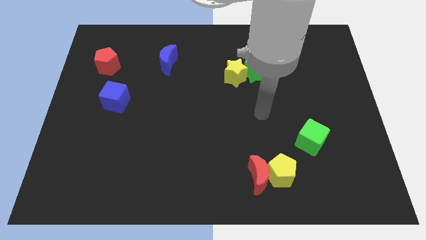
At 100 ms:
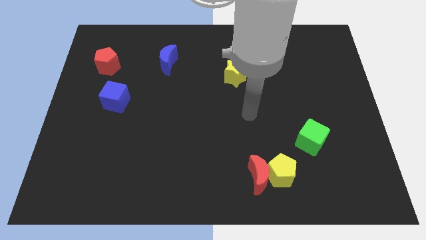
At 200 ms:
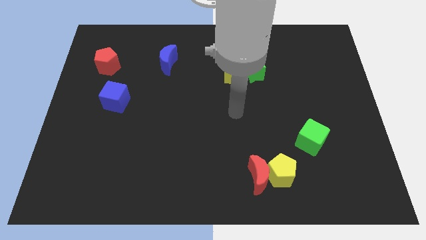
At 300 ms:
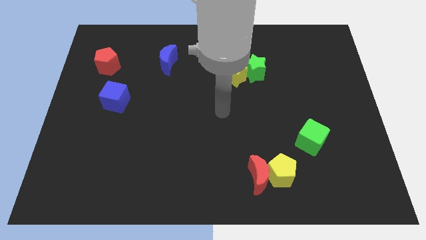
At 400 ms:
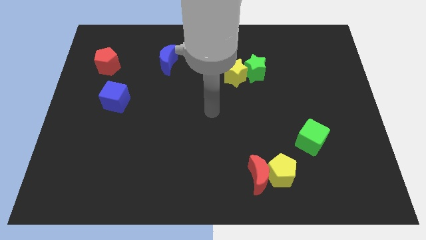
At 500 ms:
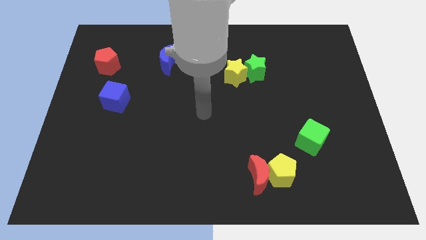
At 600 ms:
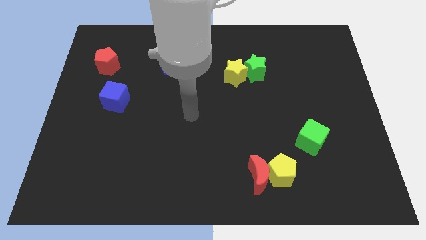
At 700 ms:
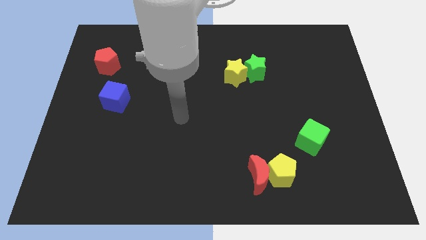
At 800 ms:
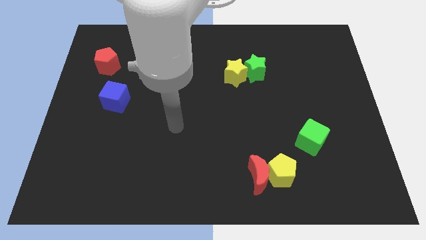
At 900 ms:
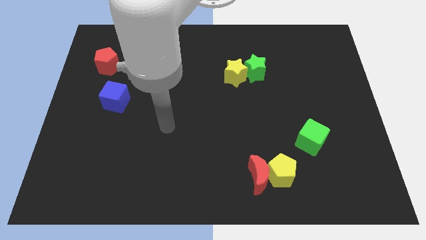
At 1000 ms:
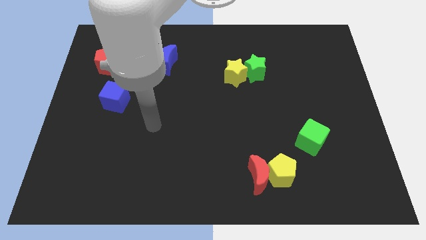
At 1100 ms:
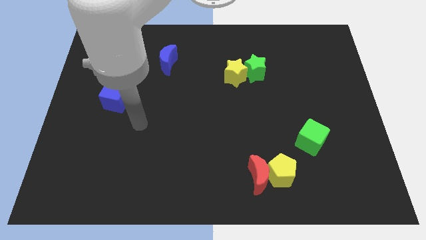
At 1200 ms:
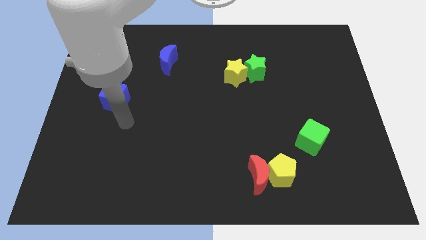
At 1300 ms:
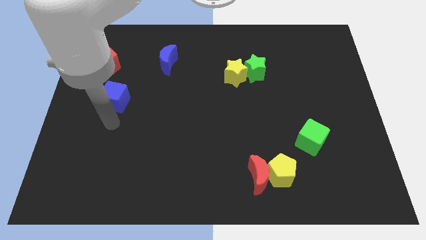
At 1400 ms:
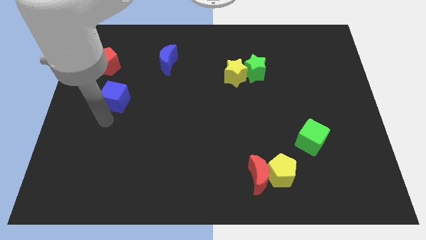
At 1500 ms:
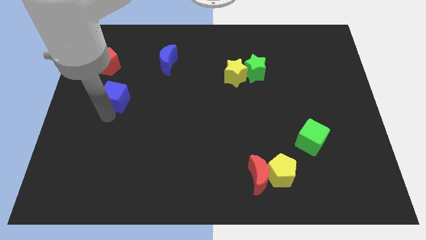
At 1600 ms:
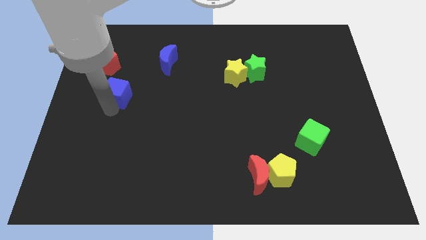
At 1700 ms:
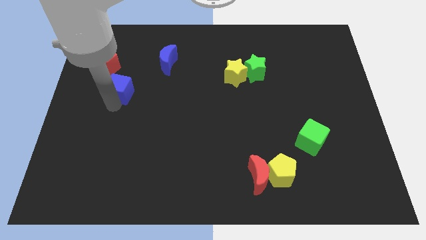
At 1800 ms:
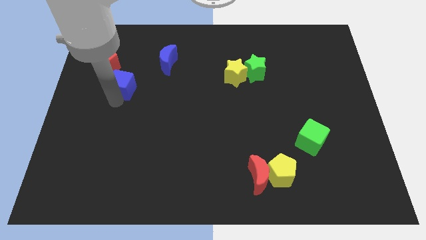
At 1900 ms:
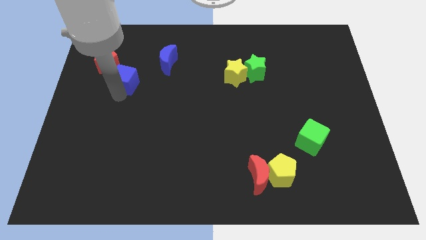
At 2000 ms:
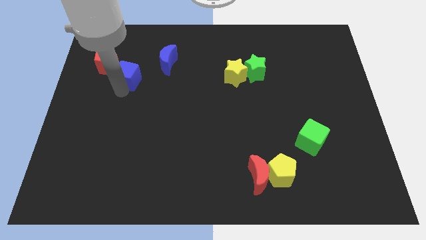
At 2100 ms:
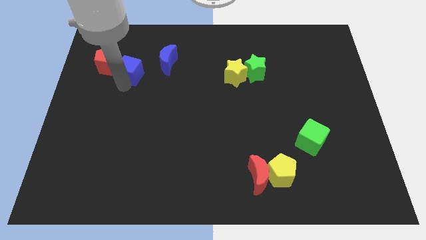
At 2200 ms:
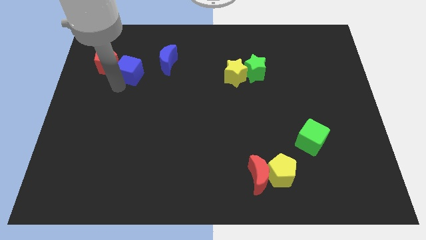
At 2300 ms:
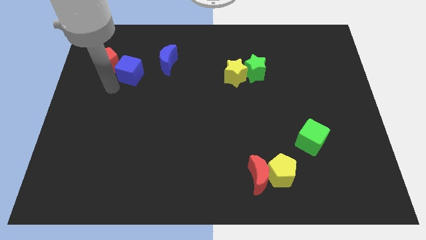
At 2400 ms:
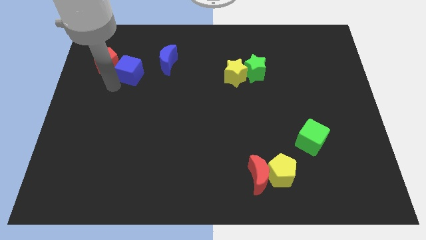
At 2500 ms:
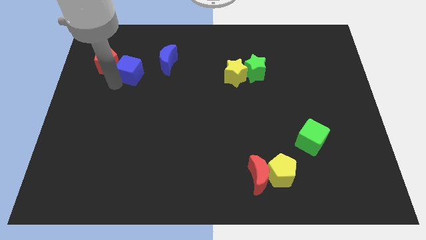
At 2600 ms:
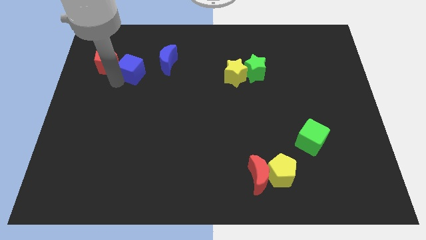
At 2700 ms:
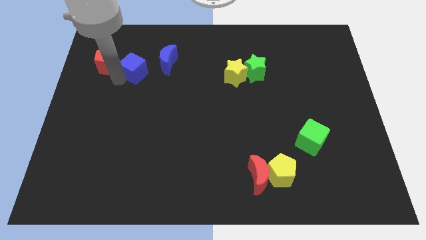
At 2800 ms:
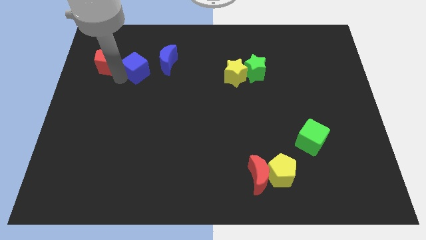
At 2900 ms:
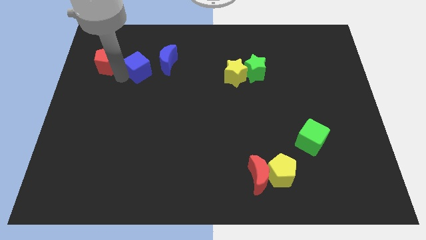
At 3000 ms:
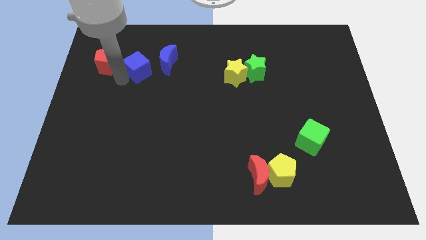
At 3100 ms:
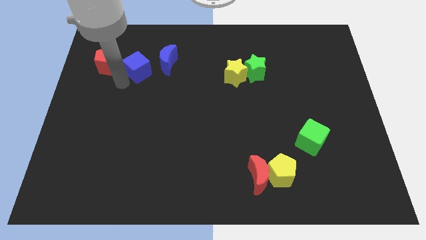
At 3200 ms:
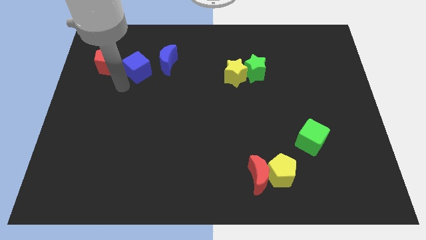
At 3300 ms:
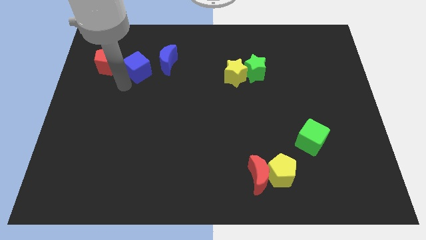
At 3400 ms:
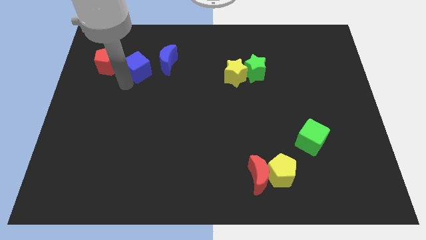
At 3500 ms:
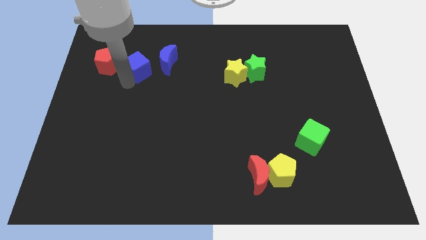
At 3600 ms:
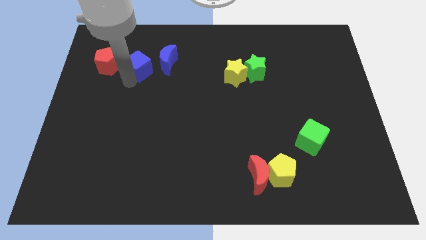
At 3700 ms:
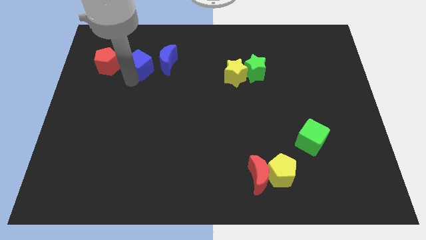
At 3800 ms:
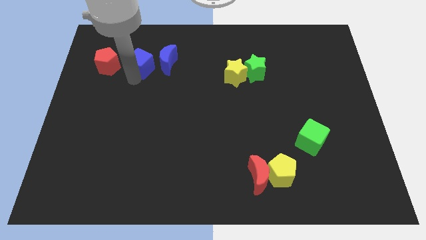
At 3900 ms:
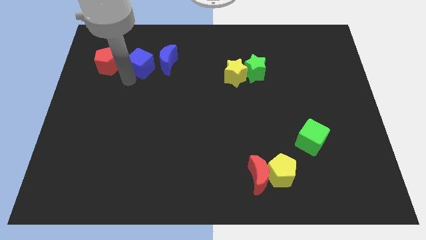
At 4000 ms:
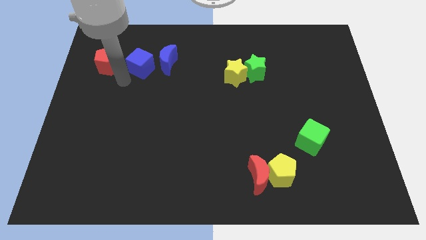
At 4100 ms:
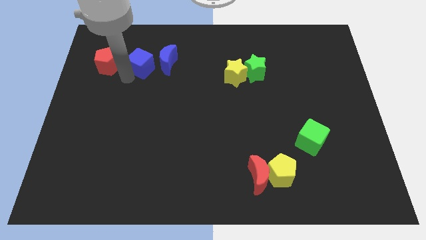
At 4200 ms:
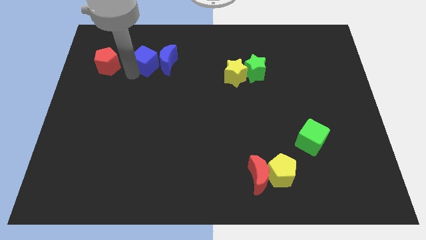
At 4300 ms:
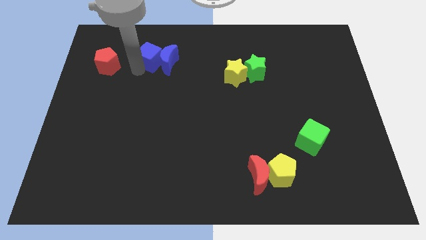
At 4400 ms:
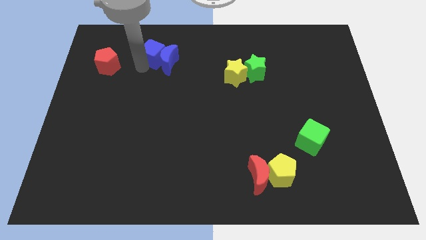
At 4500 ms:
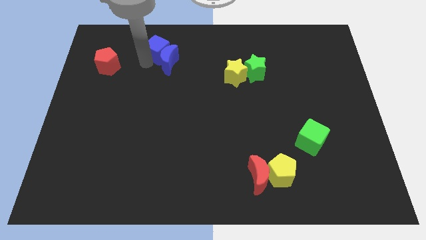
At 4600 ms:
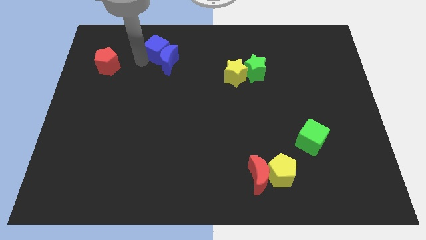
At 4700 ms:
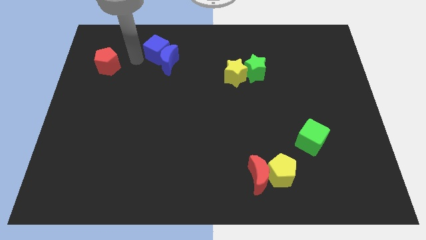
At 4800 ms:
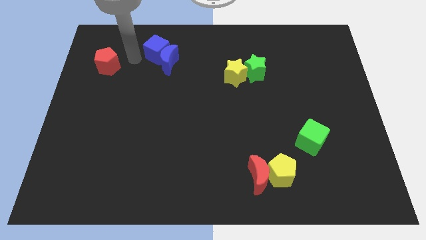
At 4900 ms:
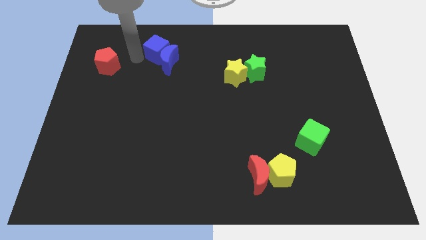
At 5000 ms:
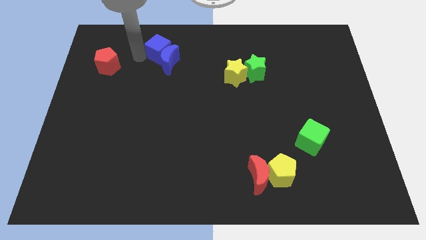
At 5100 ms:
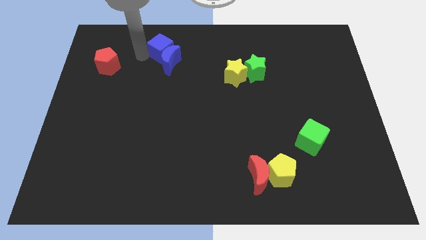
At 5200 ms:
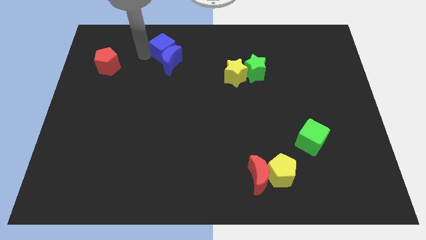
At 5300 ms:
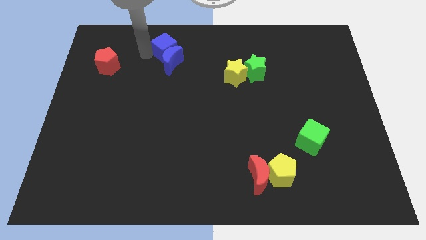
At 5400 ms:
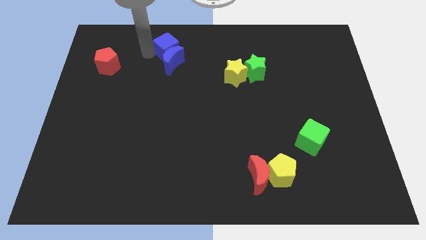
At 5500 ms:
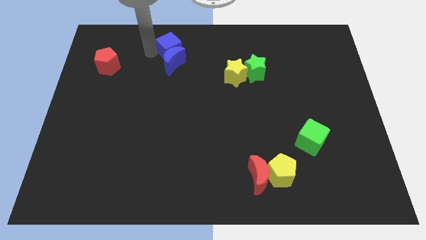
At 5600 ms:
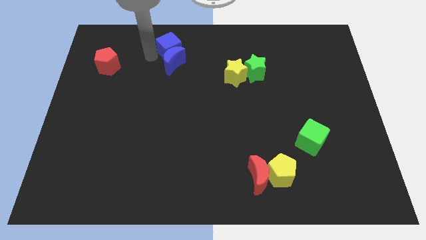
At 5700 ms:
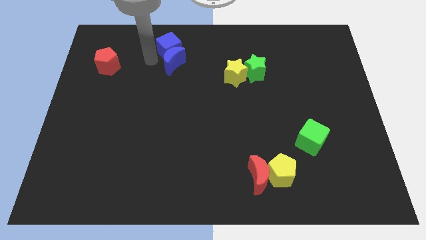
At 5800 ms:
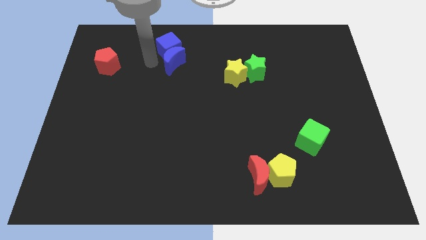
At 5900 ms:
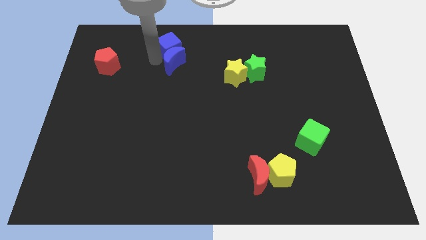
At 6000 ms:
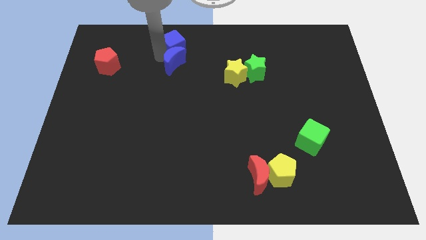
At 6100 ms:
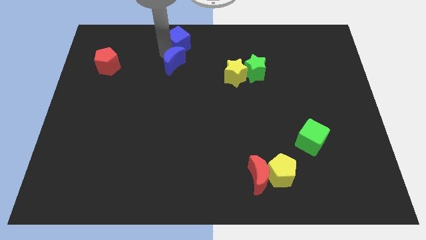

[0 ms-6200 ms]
move the blue cube to the top side
